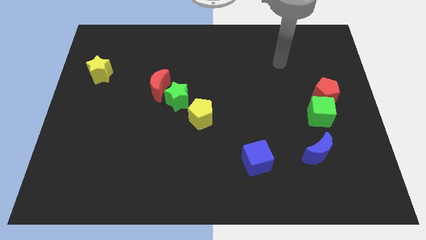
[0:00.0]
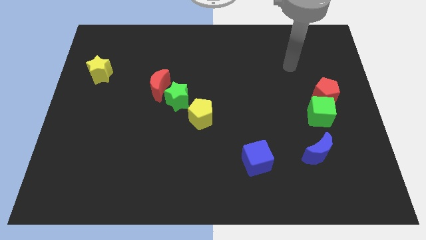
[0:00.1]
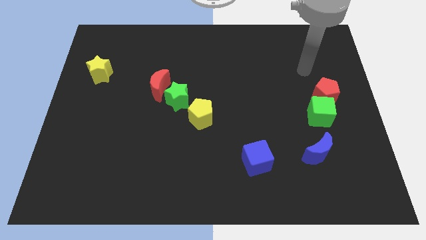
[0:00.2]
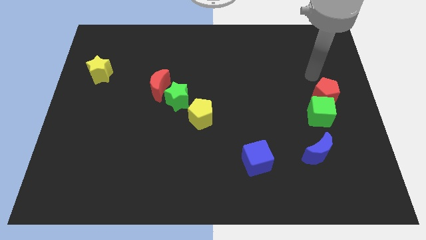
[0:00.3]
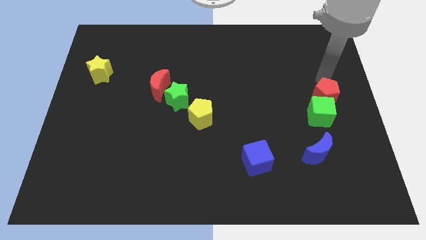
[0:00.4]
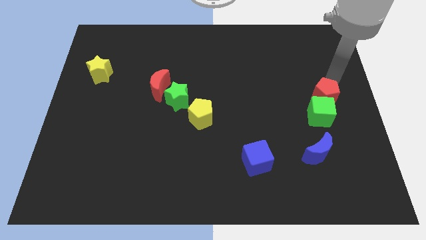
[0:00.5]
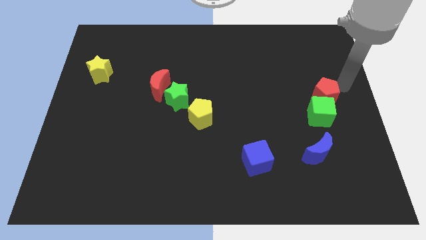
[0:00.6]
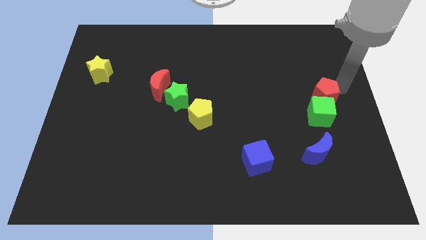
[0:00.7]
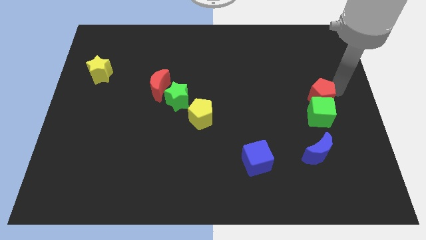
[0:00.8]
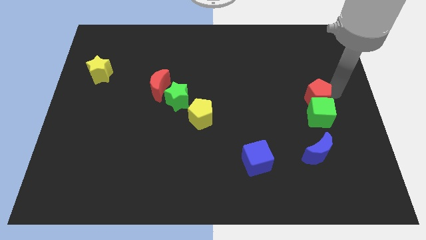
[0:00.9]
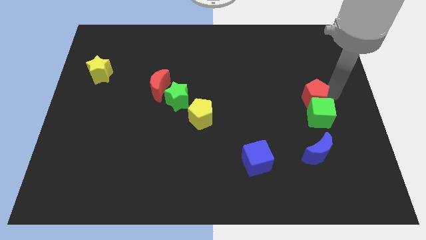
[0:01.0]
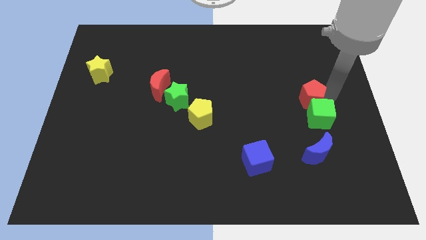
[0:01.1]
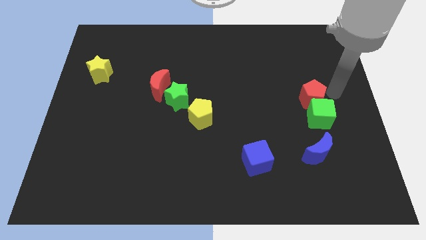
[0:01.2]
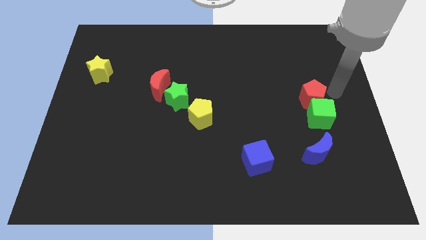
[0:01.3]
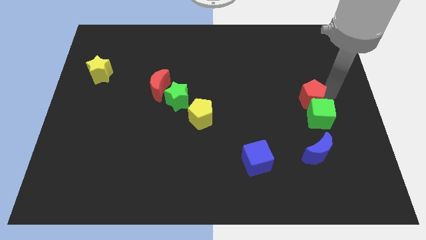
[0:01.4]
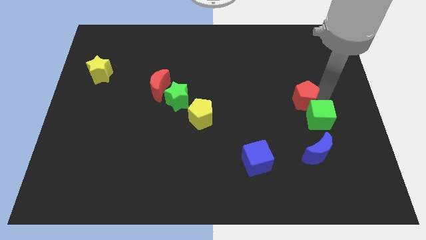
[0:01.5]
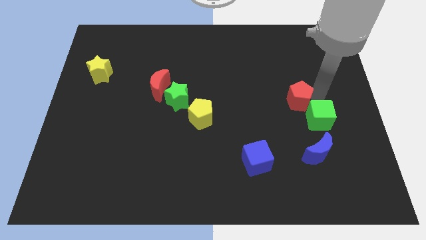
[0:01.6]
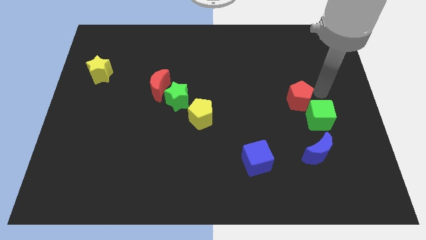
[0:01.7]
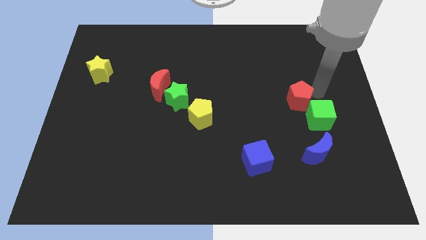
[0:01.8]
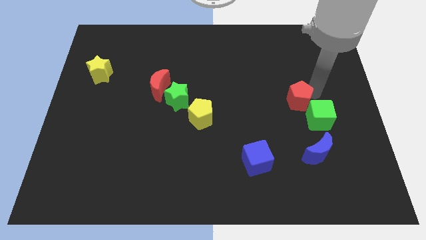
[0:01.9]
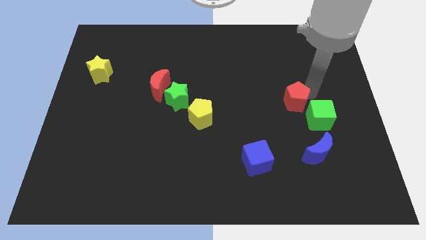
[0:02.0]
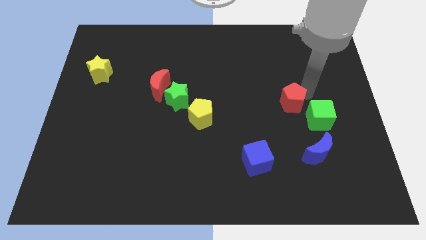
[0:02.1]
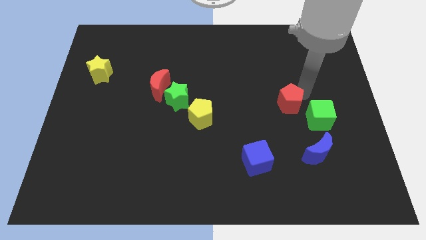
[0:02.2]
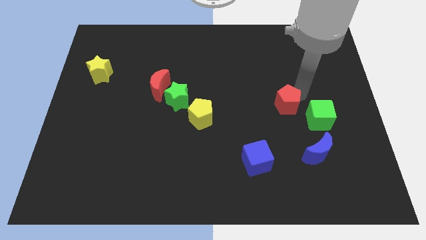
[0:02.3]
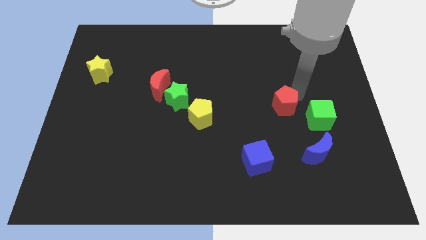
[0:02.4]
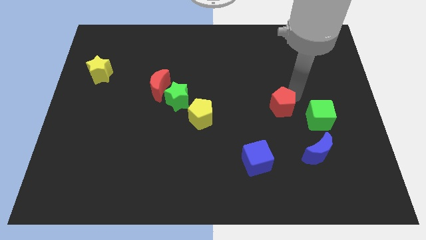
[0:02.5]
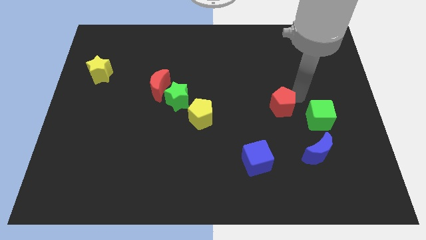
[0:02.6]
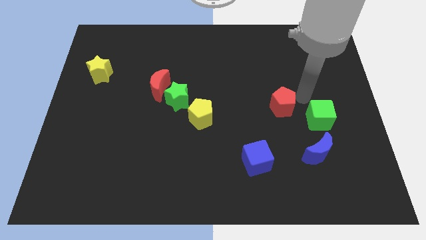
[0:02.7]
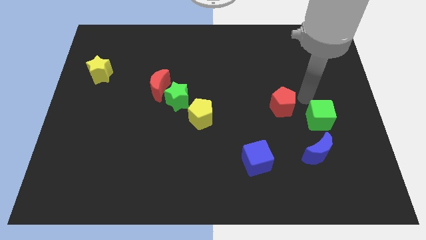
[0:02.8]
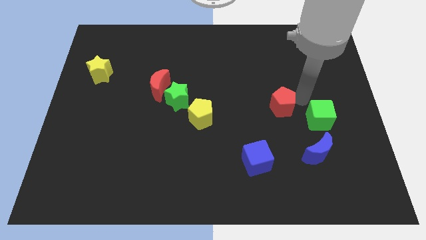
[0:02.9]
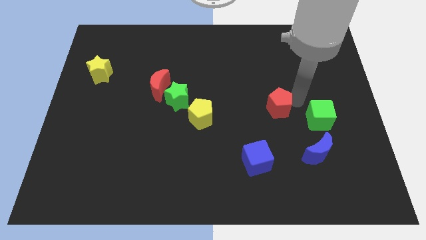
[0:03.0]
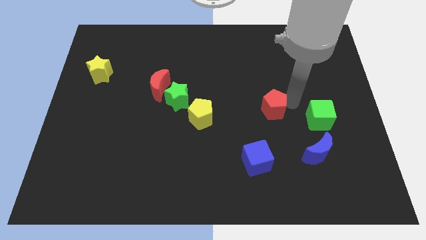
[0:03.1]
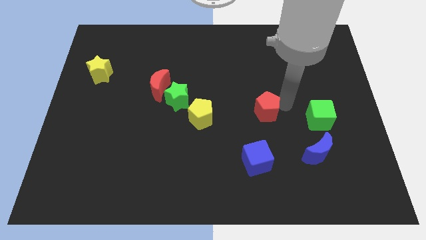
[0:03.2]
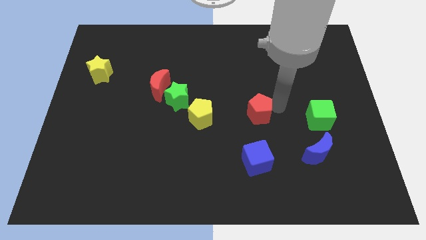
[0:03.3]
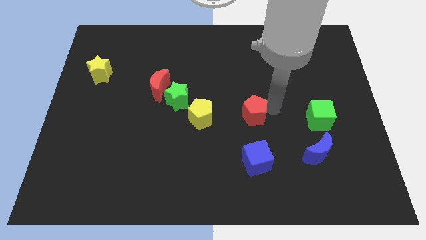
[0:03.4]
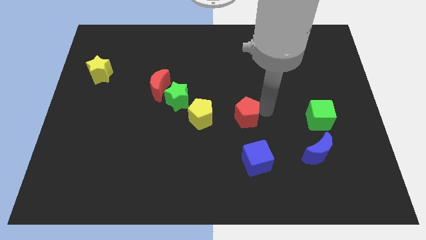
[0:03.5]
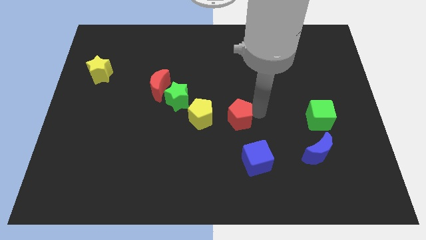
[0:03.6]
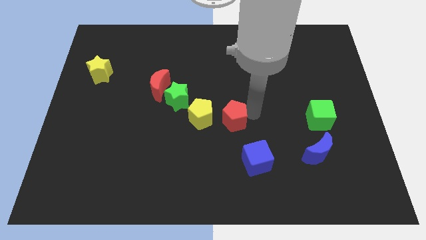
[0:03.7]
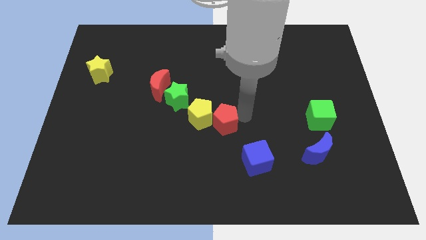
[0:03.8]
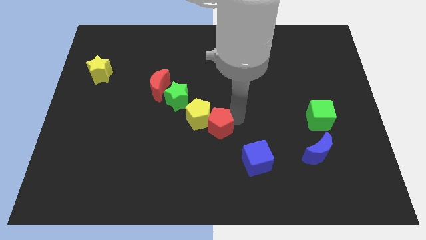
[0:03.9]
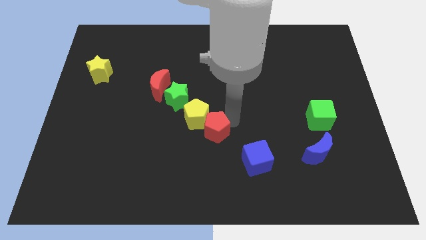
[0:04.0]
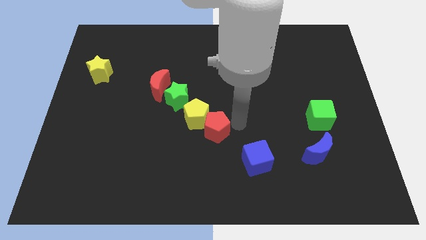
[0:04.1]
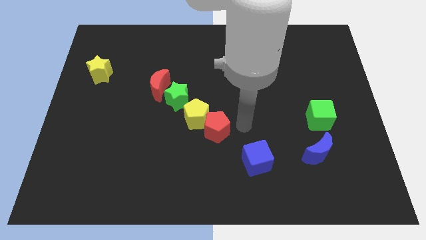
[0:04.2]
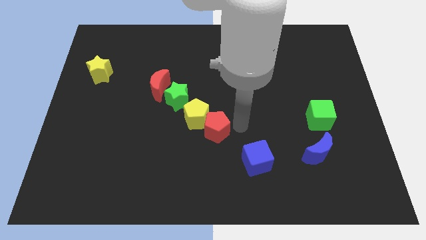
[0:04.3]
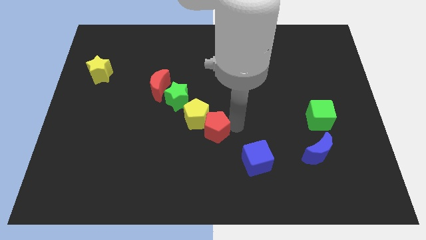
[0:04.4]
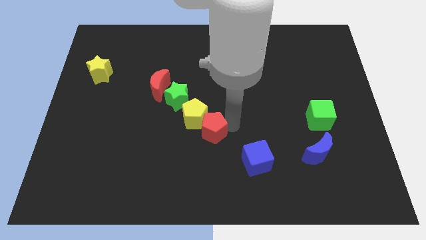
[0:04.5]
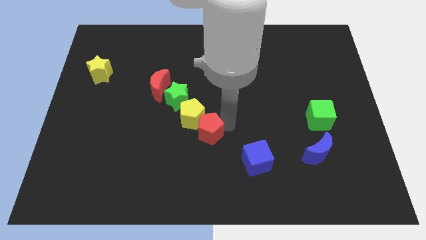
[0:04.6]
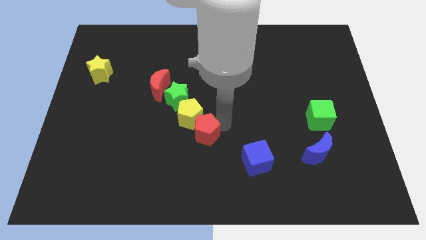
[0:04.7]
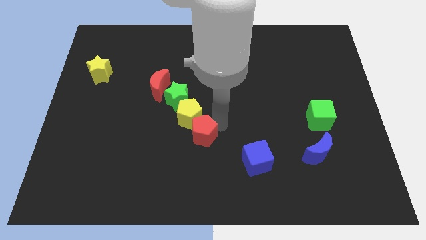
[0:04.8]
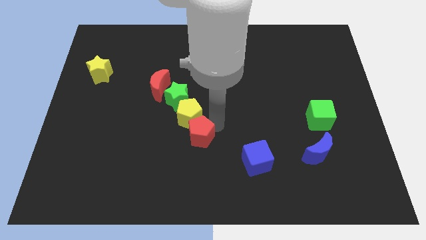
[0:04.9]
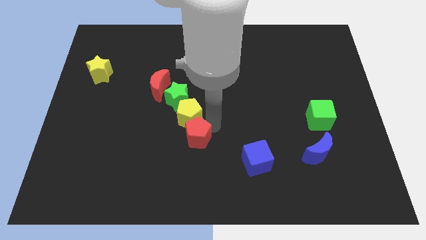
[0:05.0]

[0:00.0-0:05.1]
push the red pentagon to the bottom side of the green star

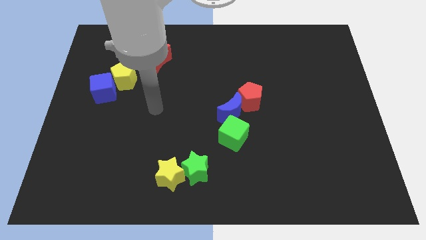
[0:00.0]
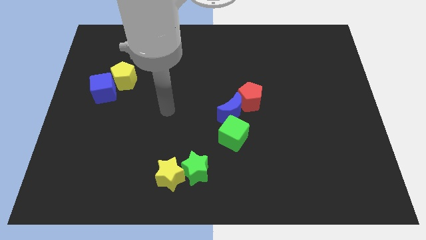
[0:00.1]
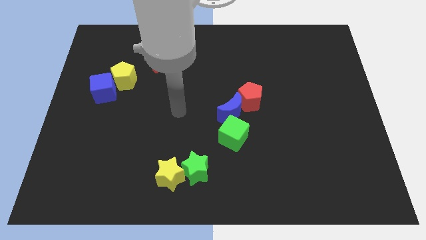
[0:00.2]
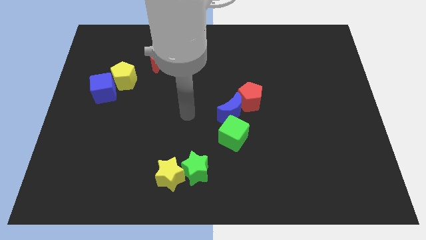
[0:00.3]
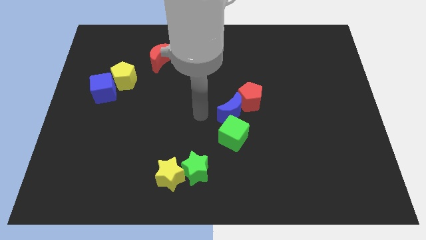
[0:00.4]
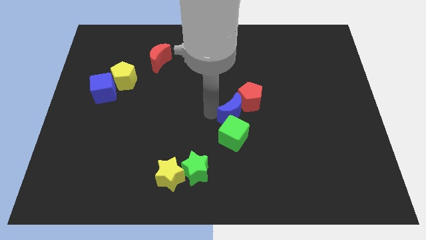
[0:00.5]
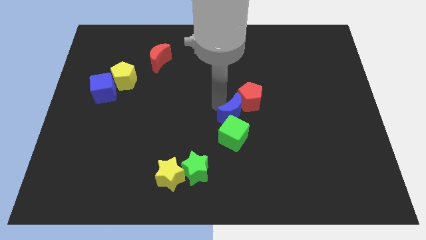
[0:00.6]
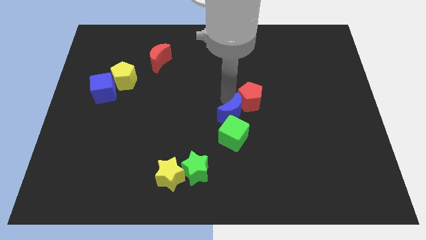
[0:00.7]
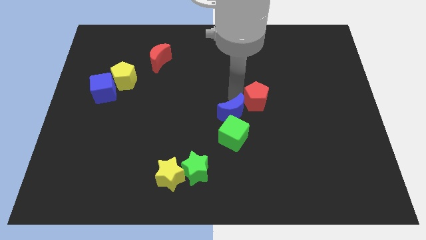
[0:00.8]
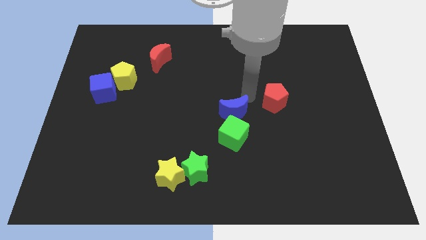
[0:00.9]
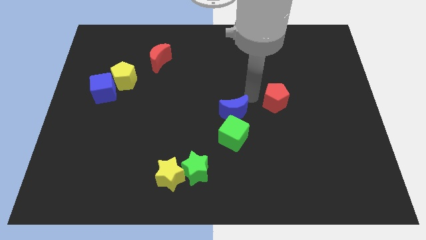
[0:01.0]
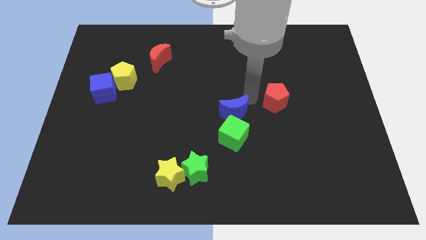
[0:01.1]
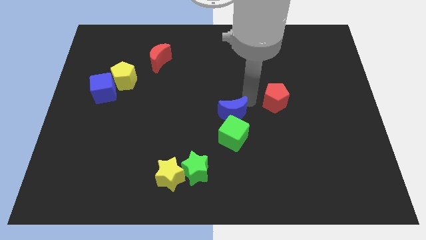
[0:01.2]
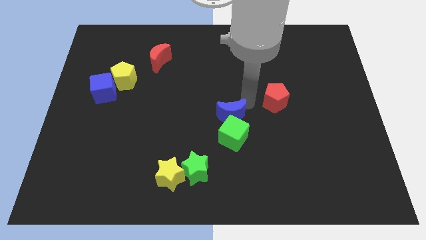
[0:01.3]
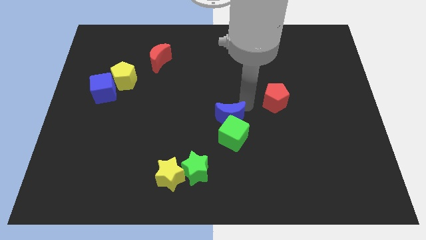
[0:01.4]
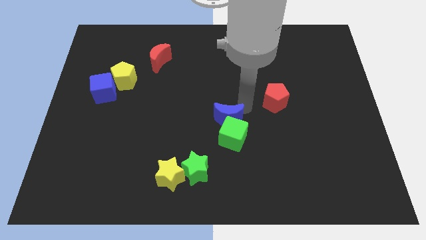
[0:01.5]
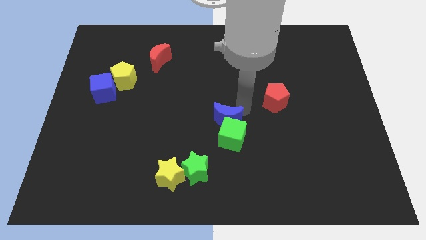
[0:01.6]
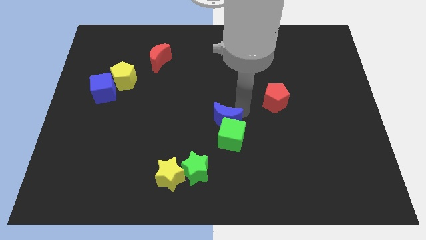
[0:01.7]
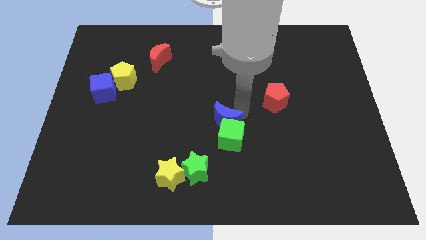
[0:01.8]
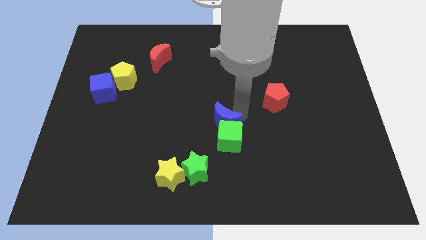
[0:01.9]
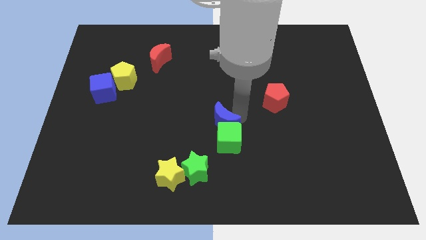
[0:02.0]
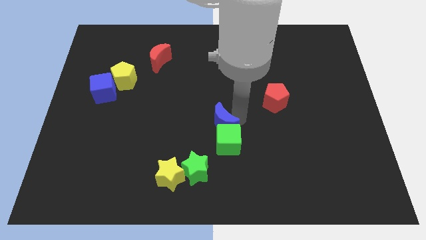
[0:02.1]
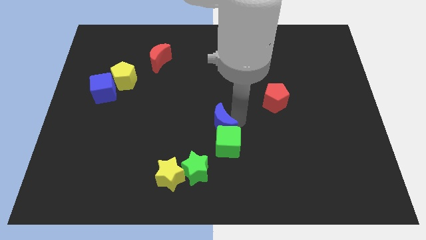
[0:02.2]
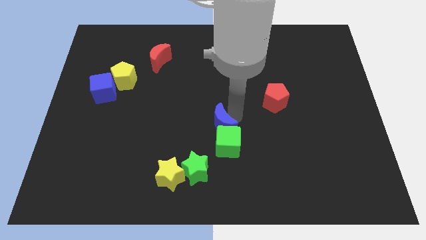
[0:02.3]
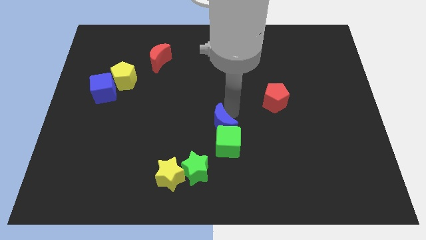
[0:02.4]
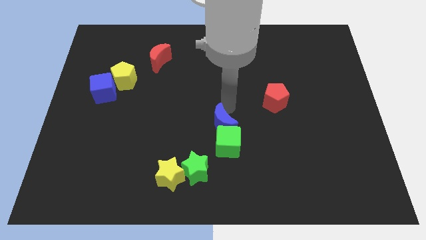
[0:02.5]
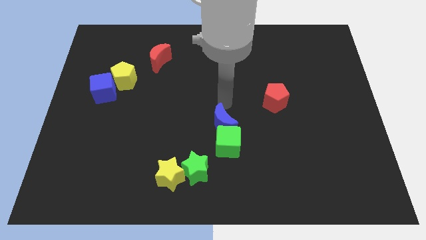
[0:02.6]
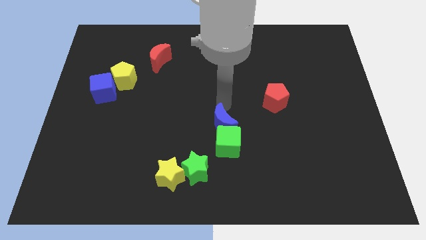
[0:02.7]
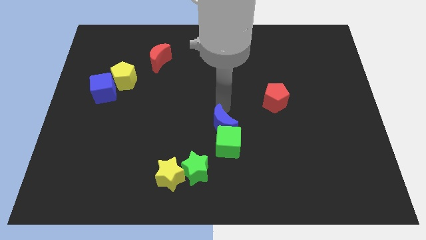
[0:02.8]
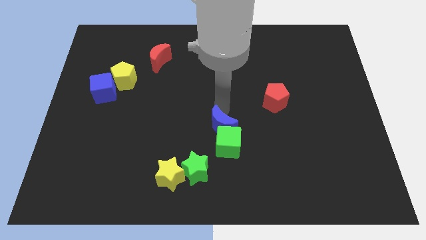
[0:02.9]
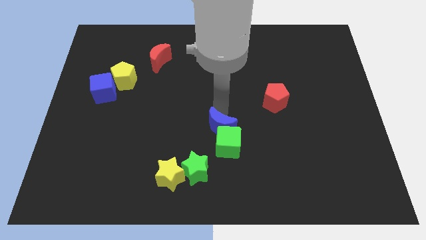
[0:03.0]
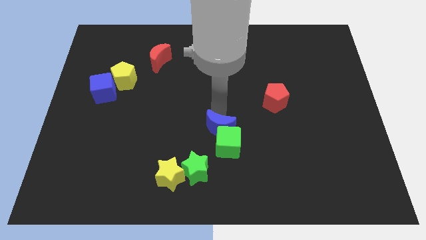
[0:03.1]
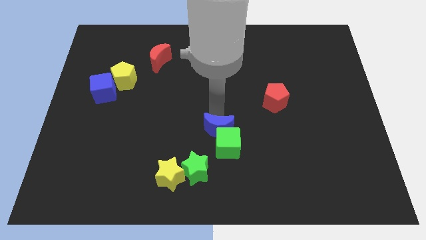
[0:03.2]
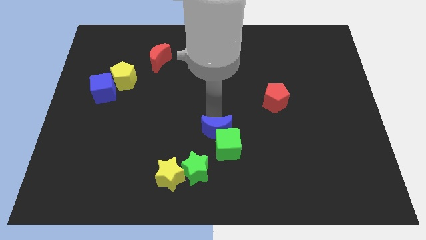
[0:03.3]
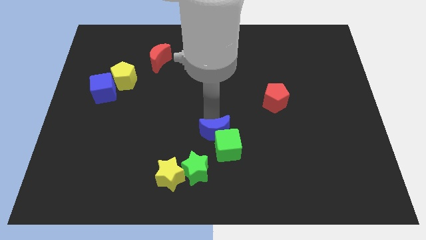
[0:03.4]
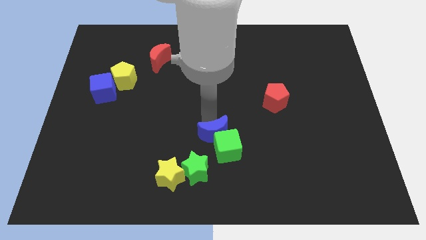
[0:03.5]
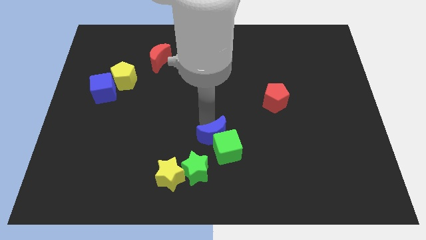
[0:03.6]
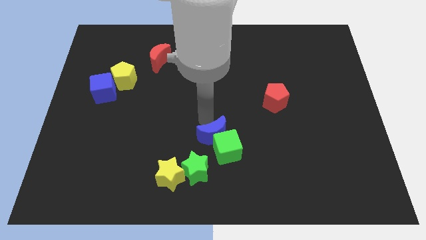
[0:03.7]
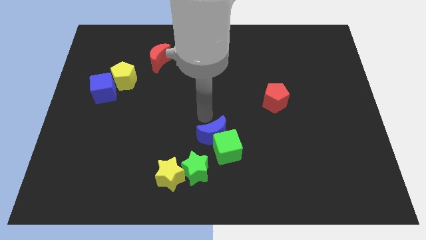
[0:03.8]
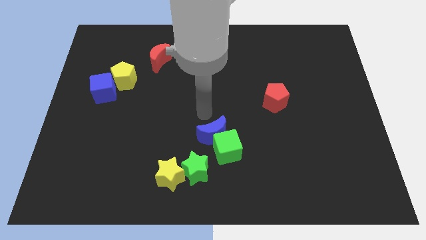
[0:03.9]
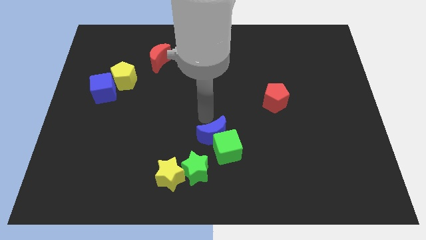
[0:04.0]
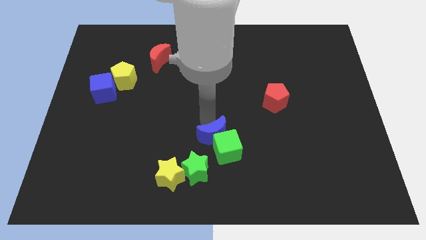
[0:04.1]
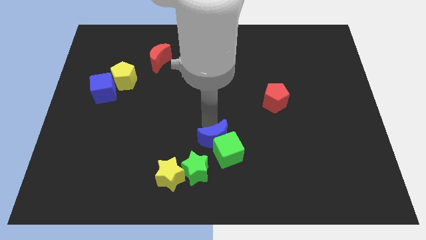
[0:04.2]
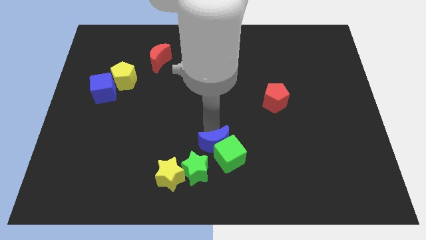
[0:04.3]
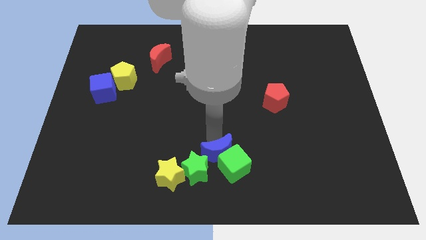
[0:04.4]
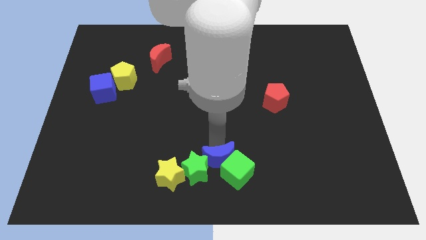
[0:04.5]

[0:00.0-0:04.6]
push the blue moon just right of the yellow star
